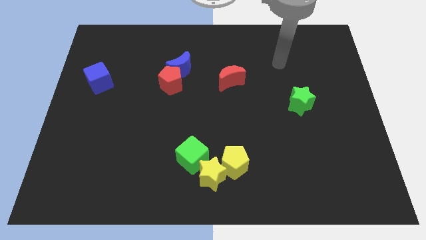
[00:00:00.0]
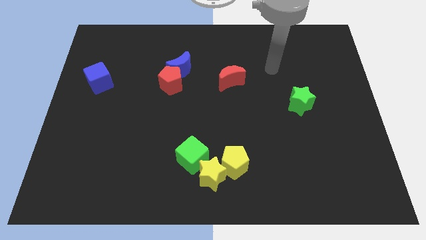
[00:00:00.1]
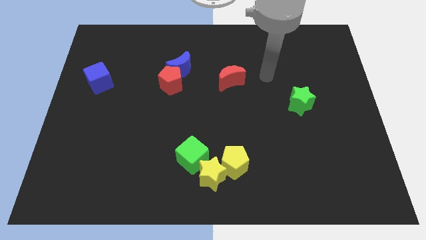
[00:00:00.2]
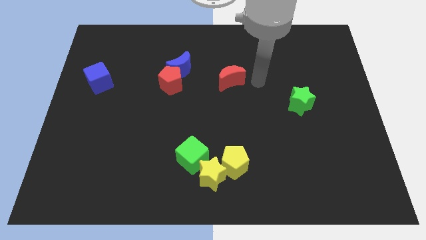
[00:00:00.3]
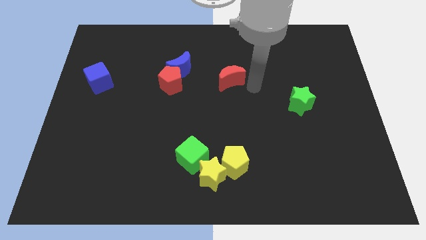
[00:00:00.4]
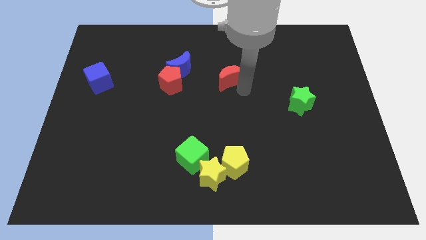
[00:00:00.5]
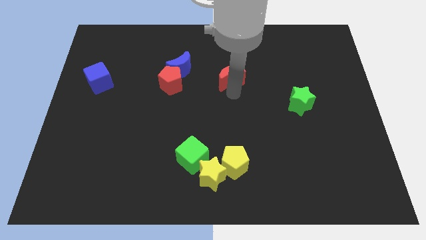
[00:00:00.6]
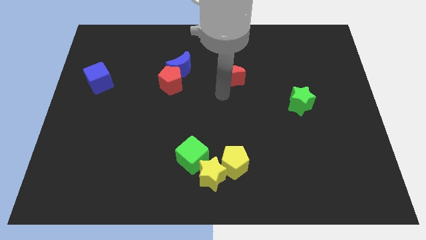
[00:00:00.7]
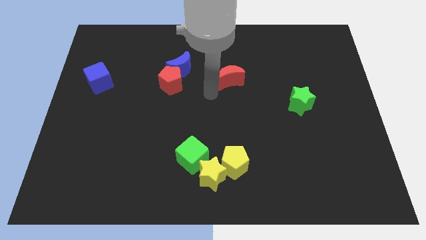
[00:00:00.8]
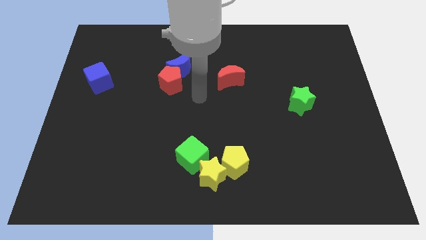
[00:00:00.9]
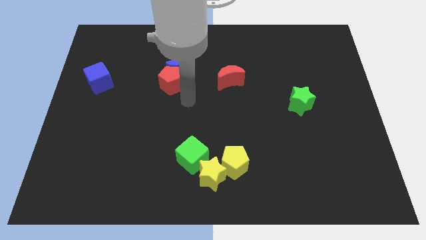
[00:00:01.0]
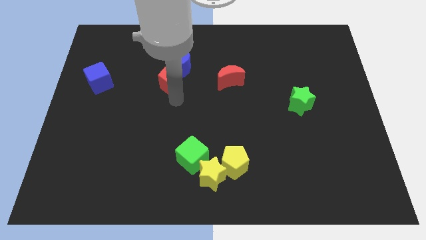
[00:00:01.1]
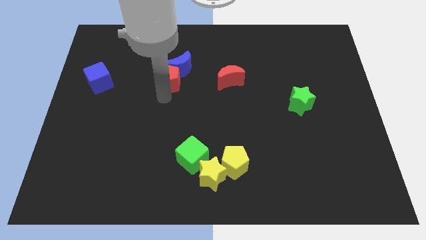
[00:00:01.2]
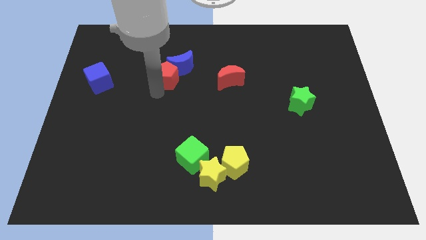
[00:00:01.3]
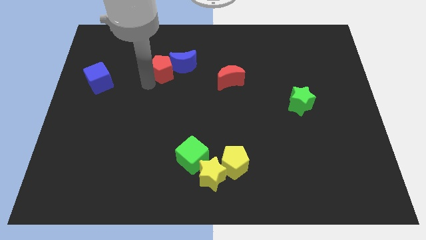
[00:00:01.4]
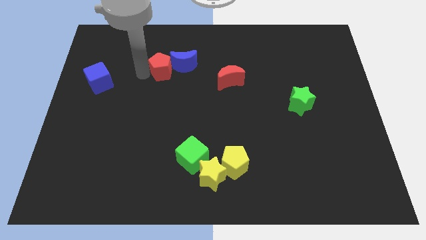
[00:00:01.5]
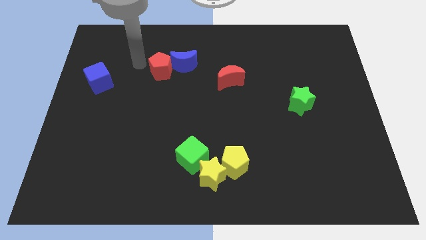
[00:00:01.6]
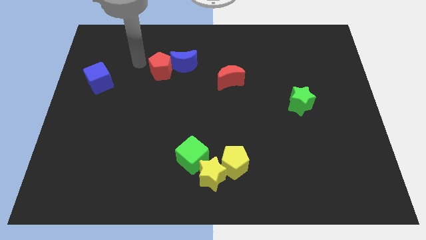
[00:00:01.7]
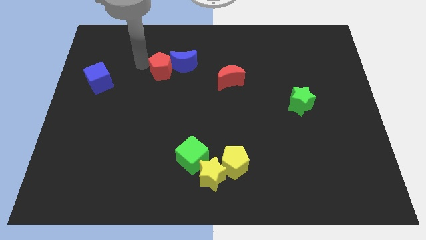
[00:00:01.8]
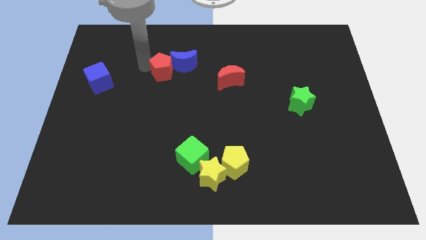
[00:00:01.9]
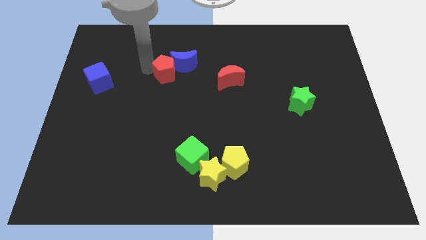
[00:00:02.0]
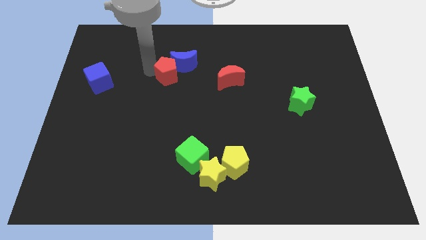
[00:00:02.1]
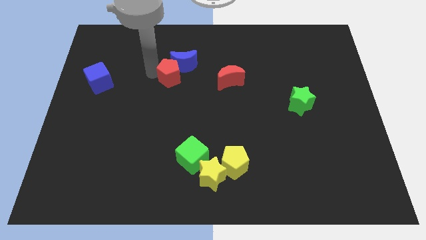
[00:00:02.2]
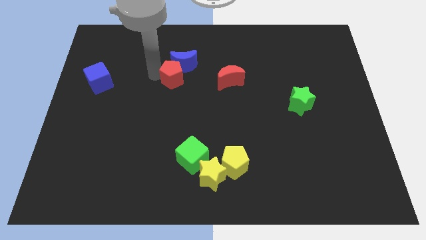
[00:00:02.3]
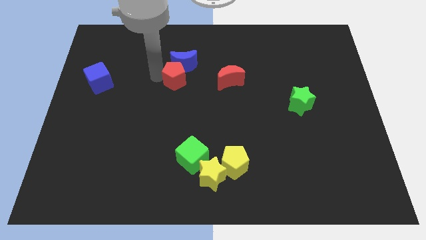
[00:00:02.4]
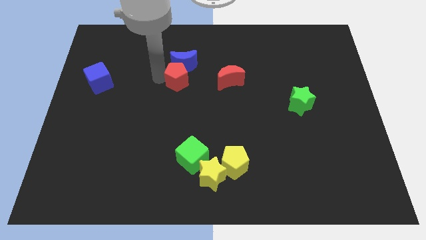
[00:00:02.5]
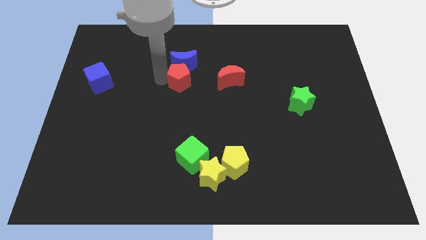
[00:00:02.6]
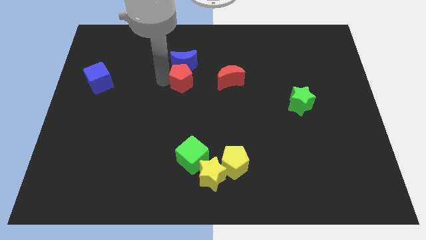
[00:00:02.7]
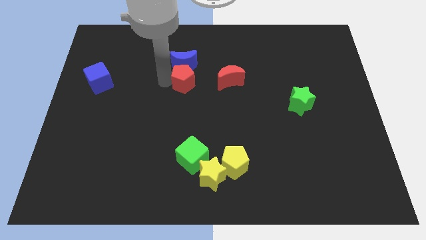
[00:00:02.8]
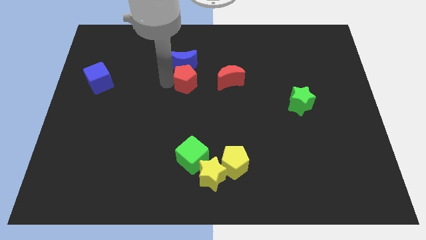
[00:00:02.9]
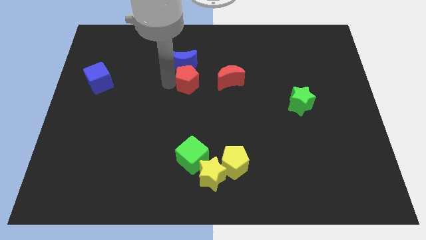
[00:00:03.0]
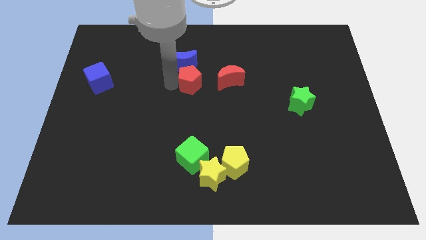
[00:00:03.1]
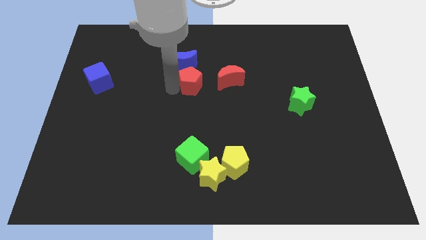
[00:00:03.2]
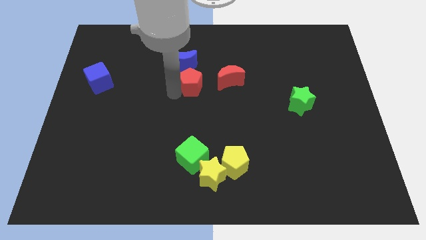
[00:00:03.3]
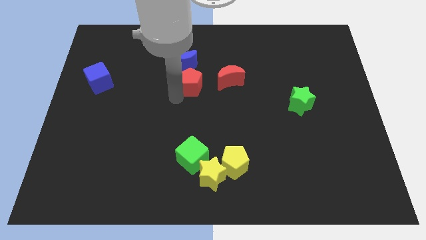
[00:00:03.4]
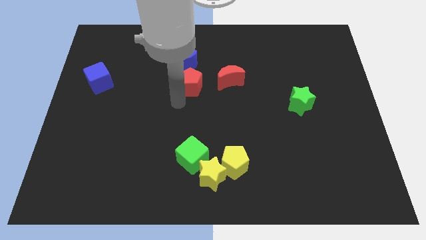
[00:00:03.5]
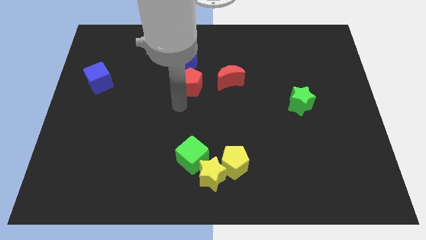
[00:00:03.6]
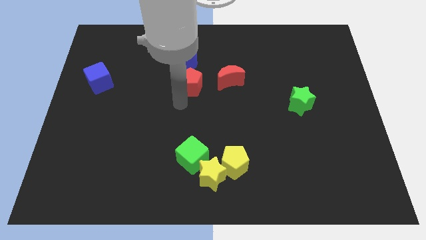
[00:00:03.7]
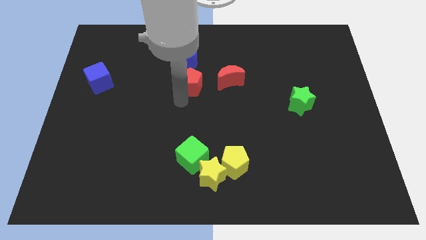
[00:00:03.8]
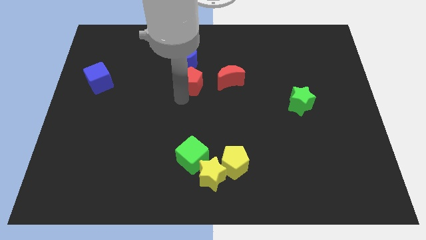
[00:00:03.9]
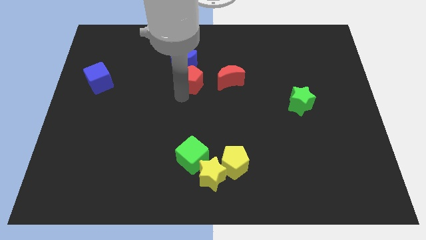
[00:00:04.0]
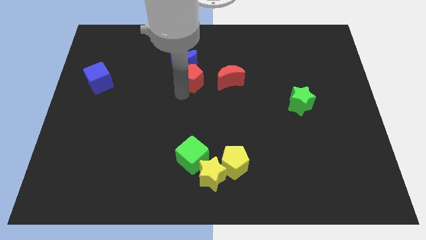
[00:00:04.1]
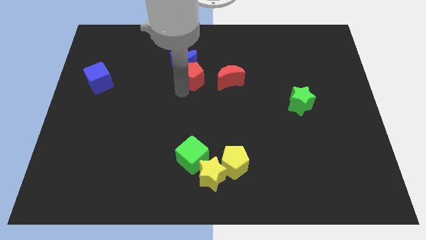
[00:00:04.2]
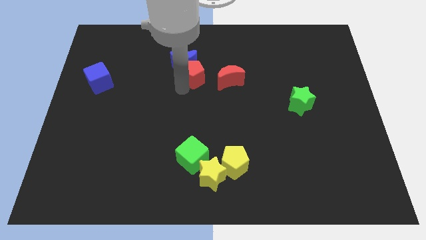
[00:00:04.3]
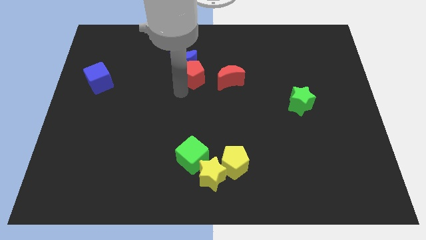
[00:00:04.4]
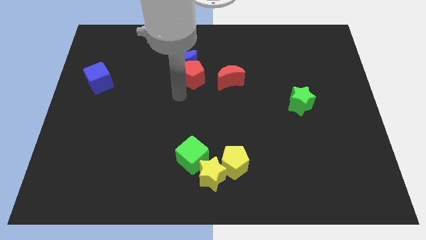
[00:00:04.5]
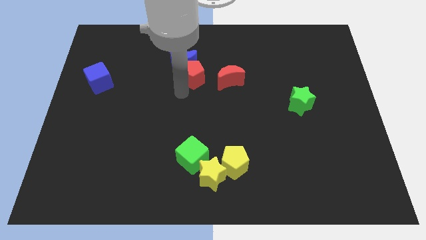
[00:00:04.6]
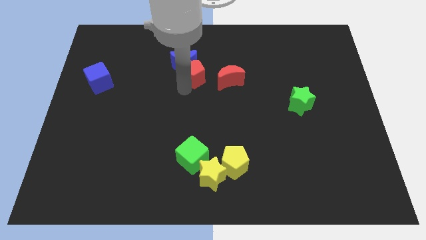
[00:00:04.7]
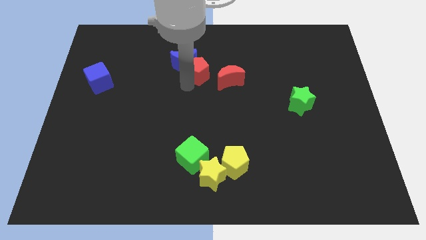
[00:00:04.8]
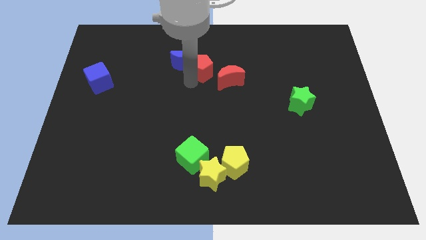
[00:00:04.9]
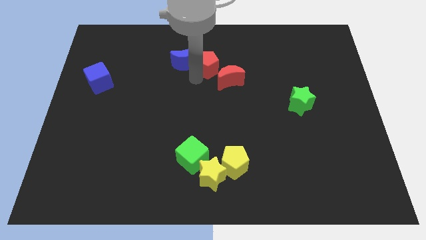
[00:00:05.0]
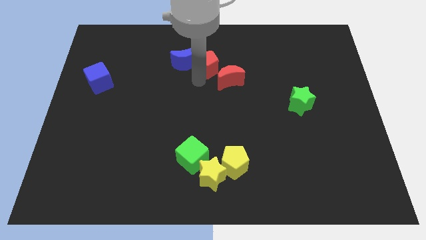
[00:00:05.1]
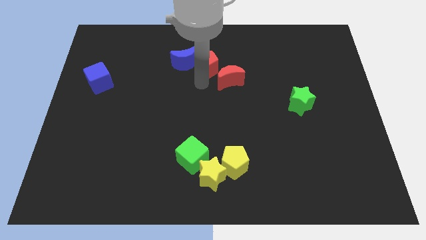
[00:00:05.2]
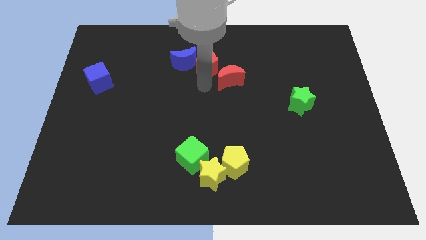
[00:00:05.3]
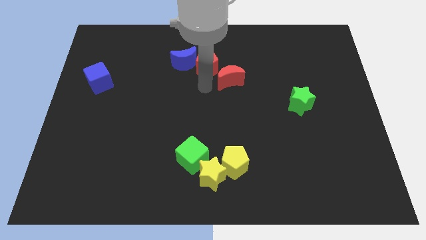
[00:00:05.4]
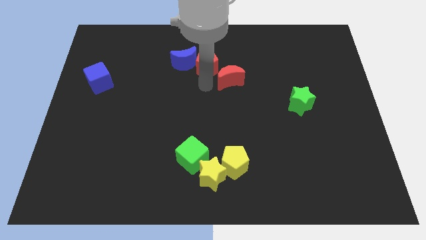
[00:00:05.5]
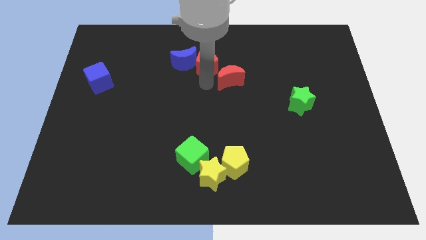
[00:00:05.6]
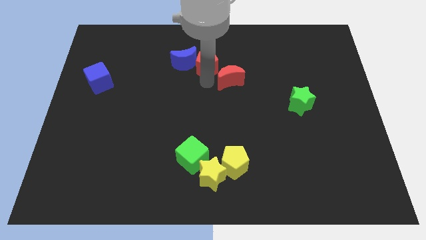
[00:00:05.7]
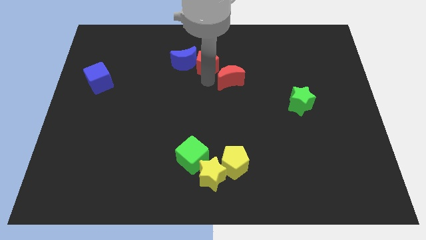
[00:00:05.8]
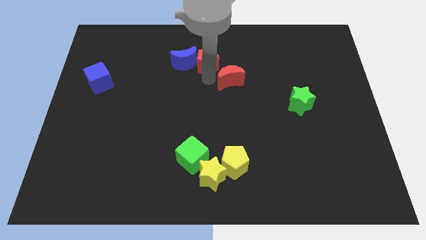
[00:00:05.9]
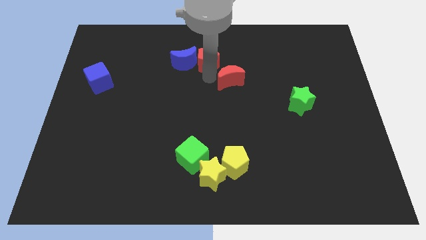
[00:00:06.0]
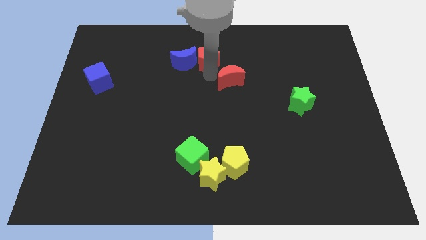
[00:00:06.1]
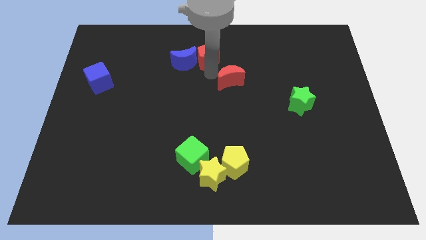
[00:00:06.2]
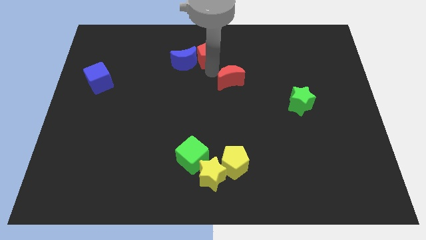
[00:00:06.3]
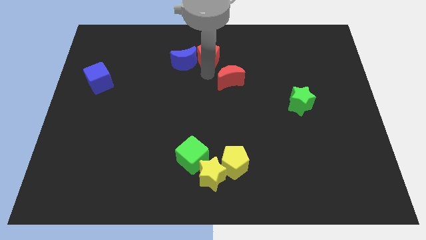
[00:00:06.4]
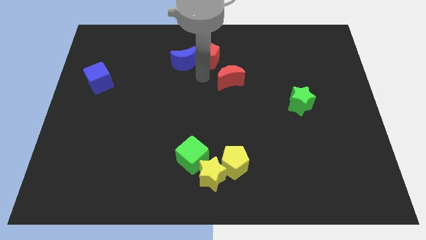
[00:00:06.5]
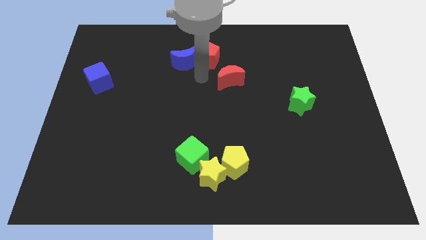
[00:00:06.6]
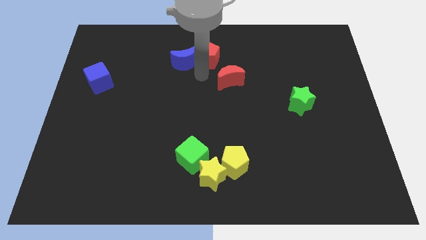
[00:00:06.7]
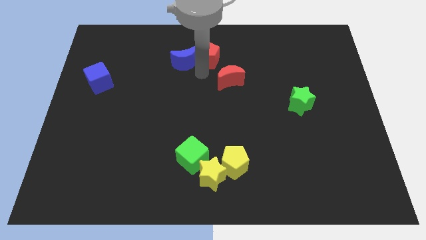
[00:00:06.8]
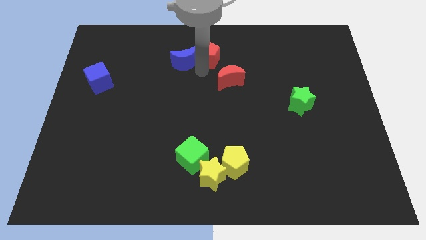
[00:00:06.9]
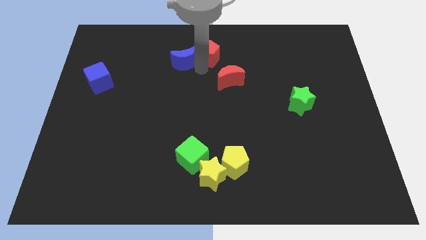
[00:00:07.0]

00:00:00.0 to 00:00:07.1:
move the red pentagon to the top side
